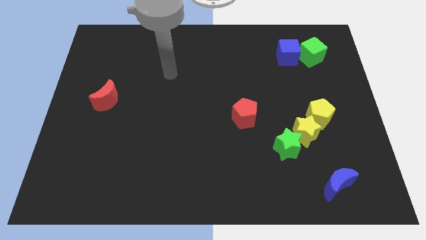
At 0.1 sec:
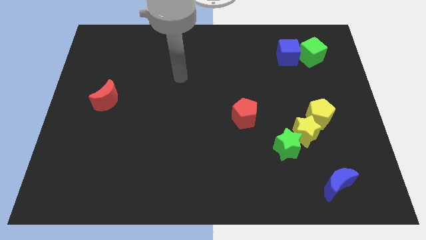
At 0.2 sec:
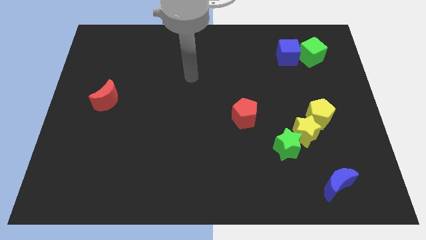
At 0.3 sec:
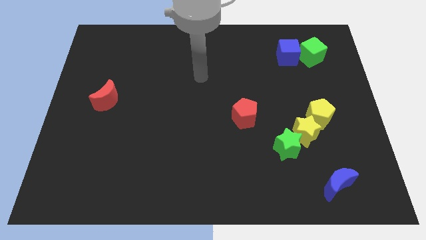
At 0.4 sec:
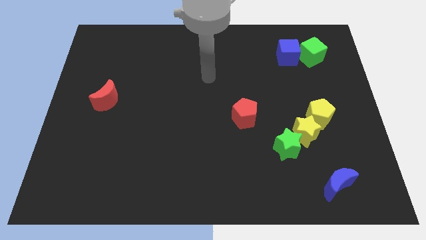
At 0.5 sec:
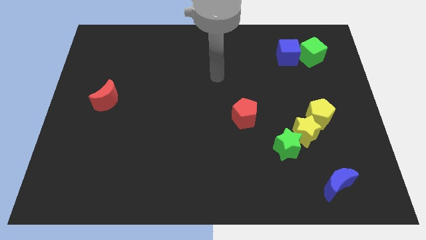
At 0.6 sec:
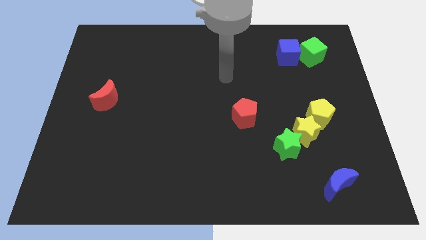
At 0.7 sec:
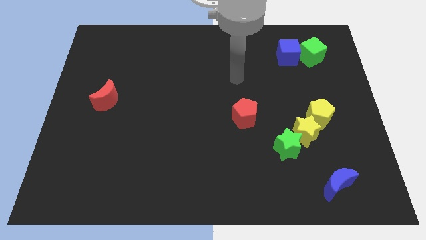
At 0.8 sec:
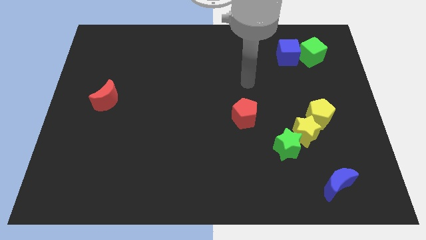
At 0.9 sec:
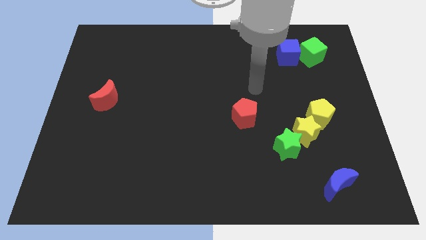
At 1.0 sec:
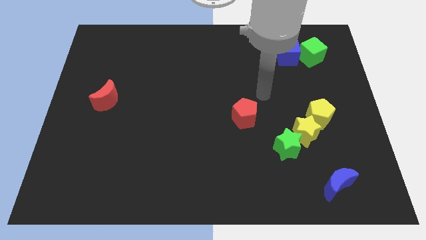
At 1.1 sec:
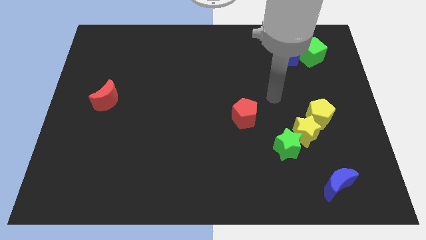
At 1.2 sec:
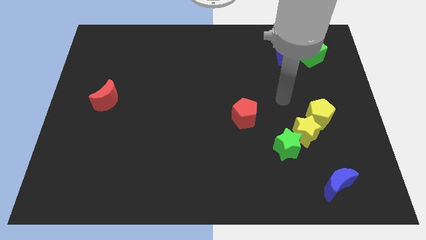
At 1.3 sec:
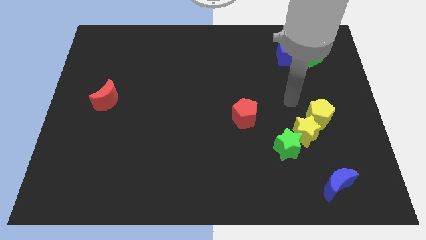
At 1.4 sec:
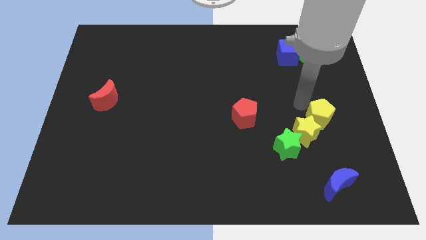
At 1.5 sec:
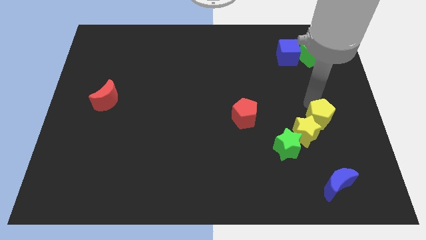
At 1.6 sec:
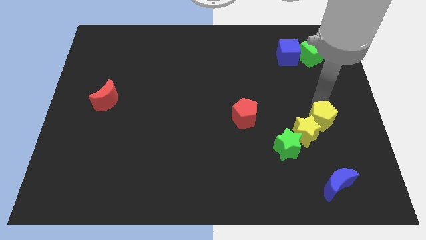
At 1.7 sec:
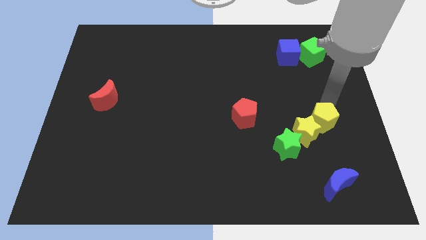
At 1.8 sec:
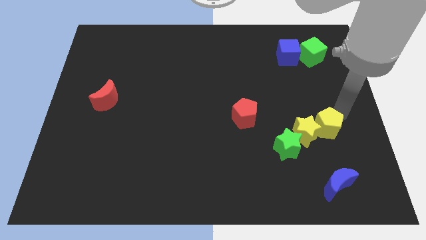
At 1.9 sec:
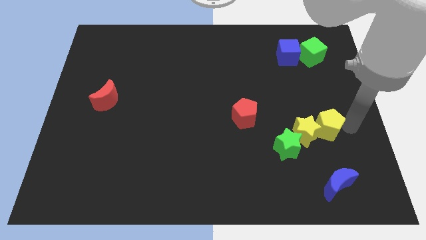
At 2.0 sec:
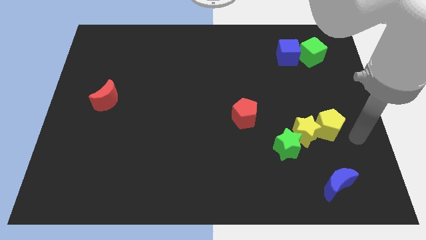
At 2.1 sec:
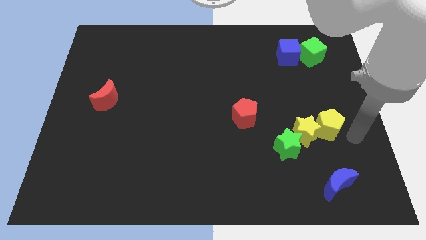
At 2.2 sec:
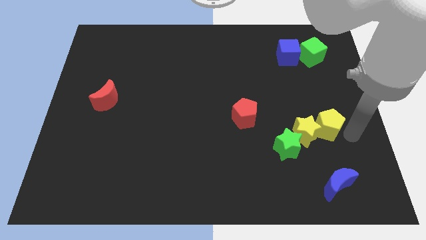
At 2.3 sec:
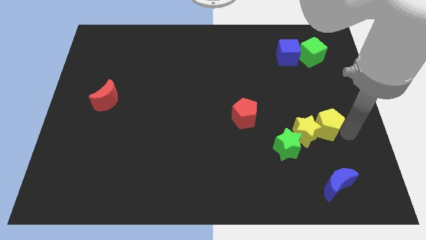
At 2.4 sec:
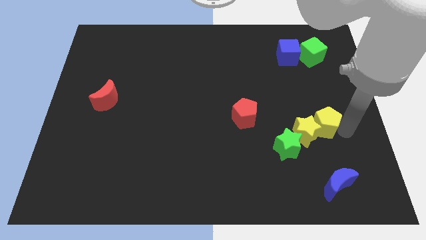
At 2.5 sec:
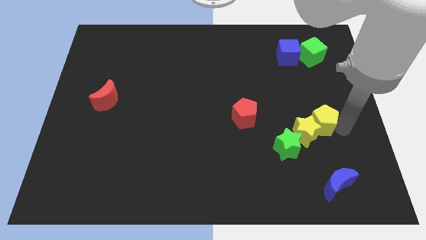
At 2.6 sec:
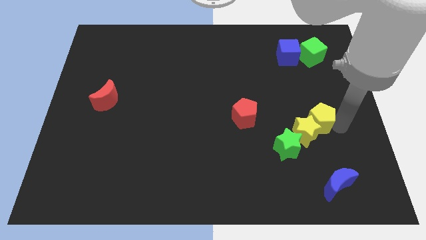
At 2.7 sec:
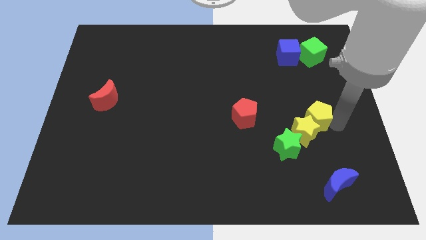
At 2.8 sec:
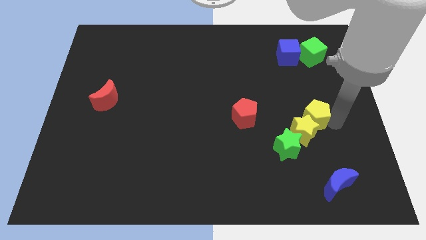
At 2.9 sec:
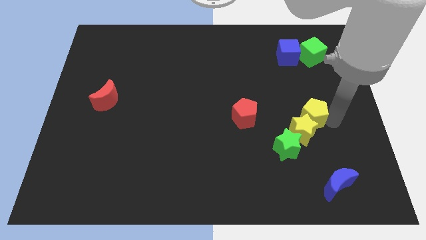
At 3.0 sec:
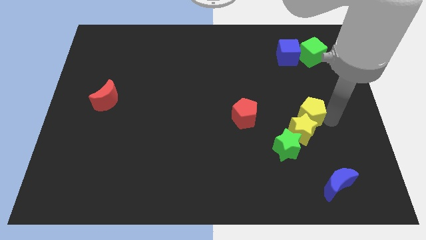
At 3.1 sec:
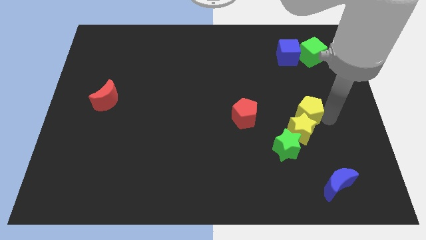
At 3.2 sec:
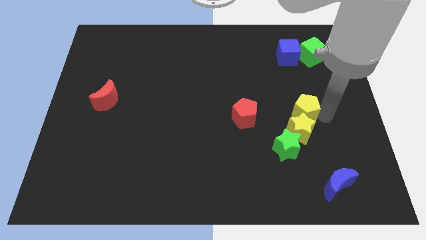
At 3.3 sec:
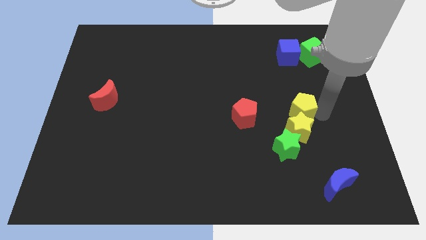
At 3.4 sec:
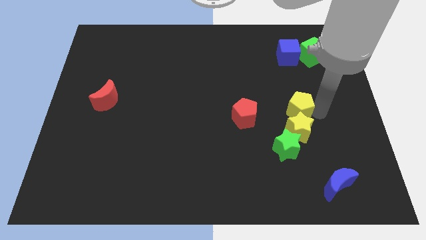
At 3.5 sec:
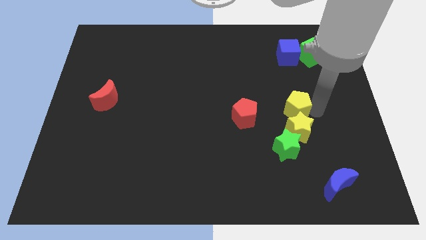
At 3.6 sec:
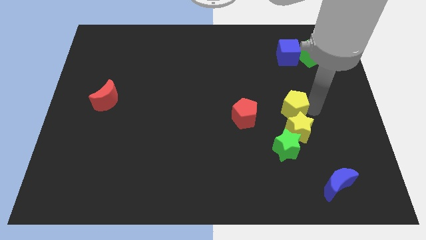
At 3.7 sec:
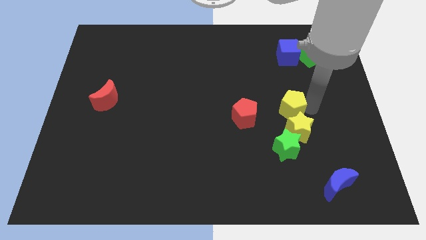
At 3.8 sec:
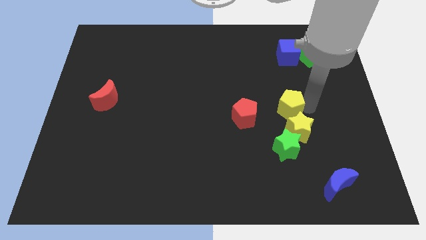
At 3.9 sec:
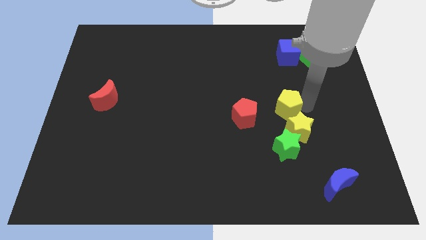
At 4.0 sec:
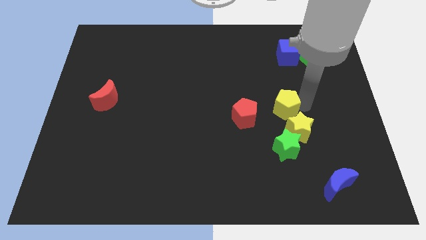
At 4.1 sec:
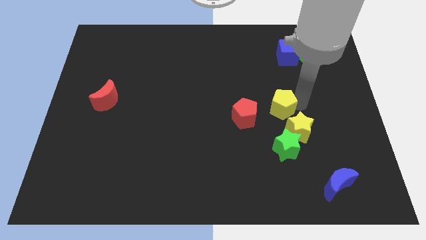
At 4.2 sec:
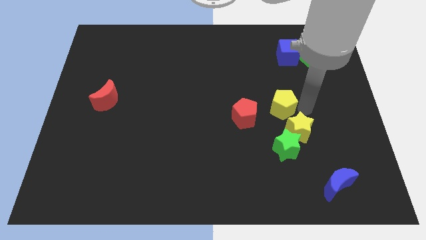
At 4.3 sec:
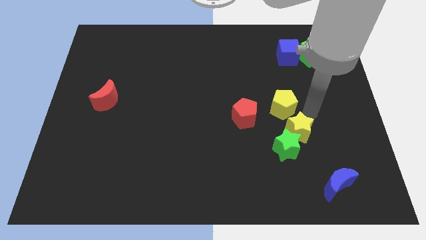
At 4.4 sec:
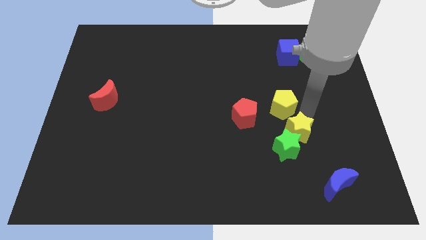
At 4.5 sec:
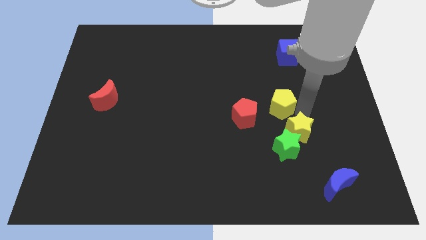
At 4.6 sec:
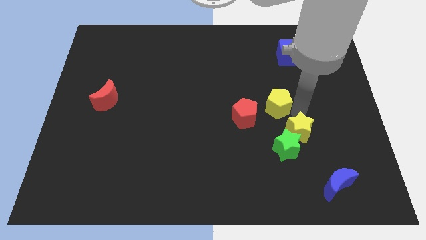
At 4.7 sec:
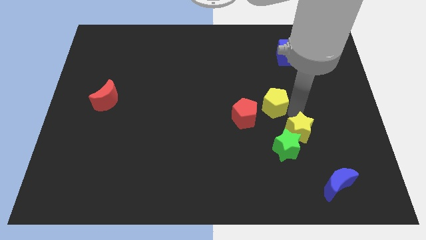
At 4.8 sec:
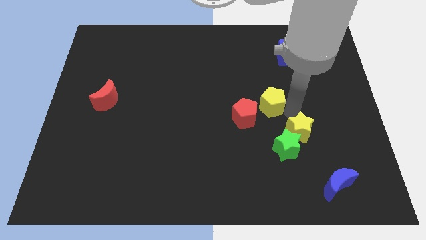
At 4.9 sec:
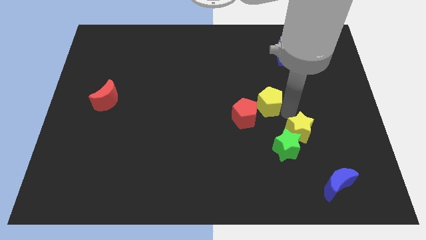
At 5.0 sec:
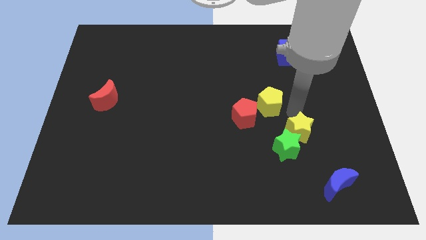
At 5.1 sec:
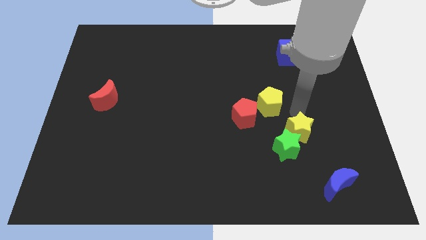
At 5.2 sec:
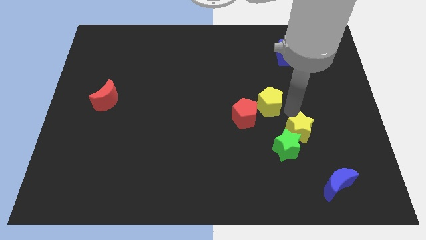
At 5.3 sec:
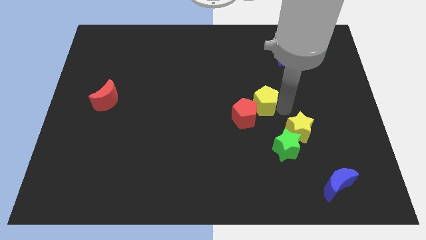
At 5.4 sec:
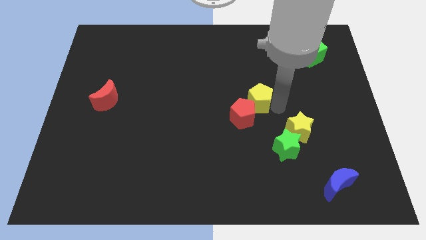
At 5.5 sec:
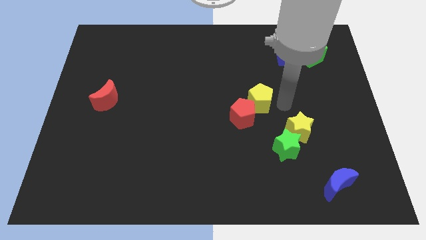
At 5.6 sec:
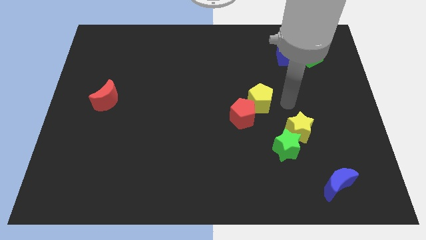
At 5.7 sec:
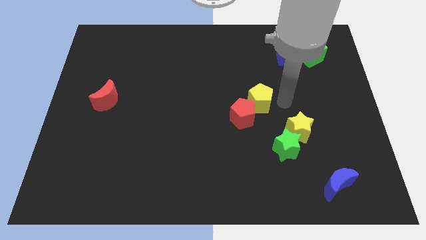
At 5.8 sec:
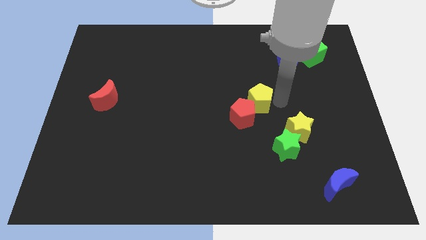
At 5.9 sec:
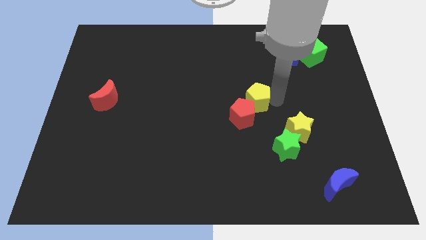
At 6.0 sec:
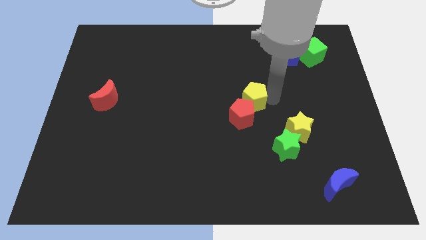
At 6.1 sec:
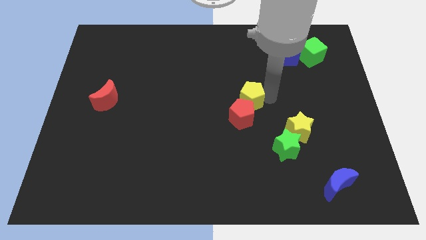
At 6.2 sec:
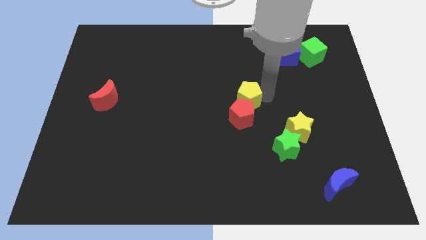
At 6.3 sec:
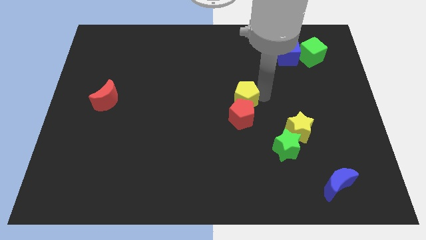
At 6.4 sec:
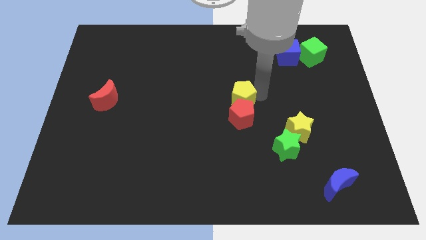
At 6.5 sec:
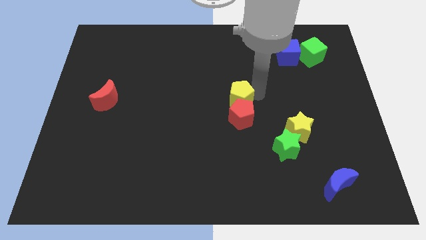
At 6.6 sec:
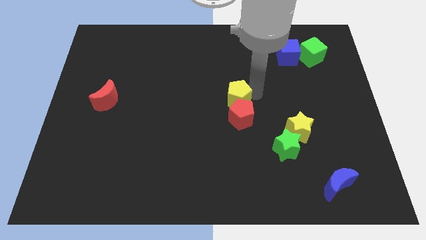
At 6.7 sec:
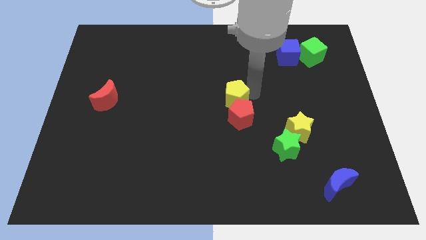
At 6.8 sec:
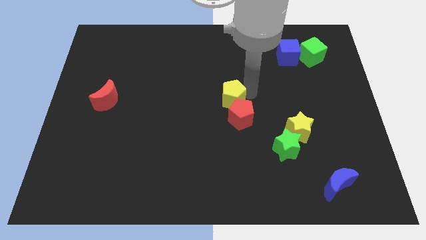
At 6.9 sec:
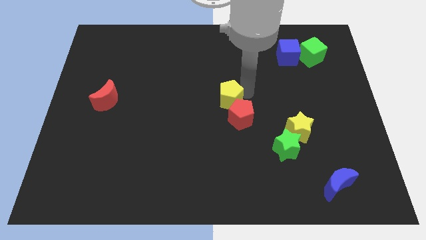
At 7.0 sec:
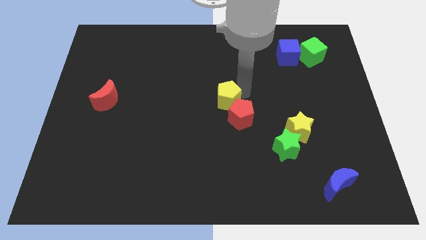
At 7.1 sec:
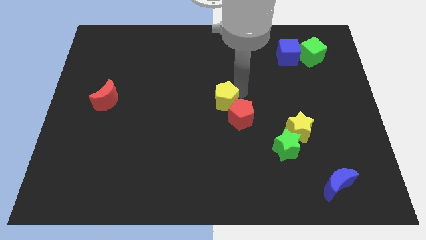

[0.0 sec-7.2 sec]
push the yellow pentagon left

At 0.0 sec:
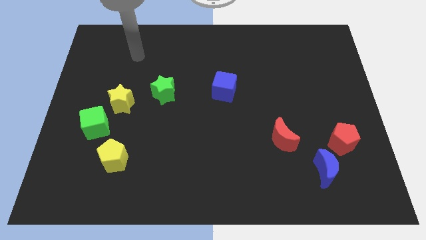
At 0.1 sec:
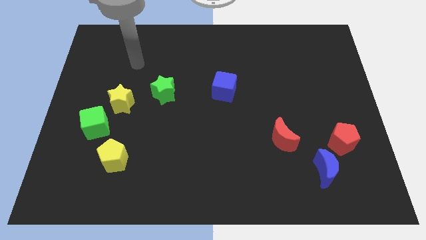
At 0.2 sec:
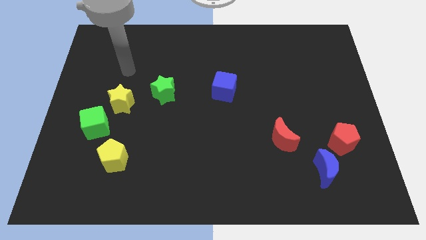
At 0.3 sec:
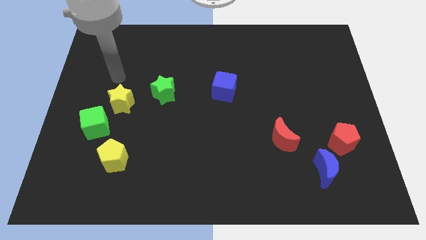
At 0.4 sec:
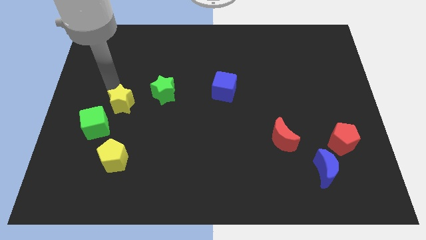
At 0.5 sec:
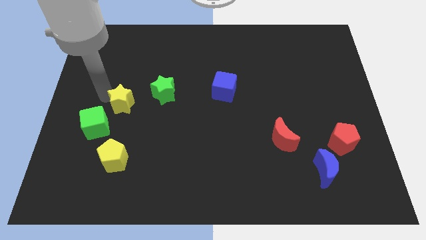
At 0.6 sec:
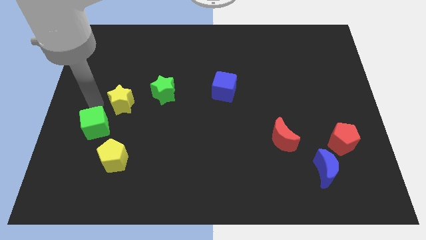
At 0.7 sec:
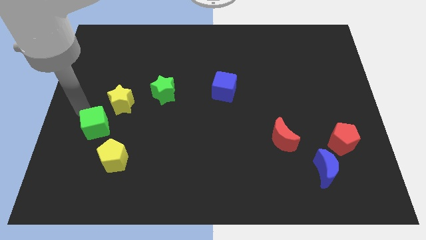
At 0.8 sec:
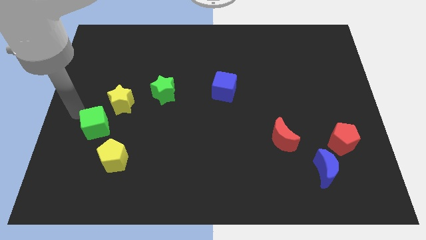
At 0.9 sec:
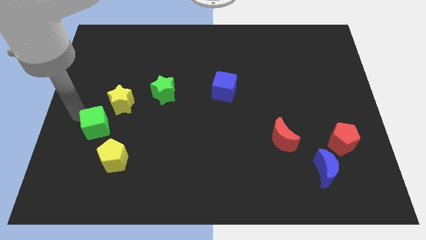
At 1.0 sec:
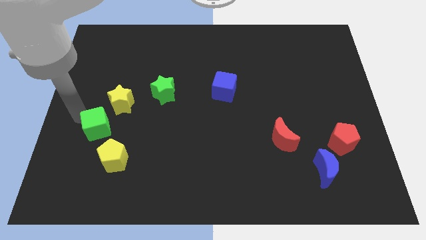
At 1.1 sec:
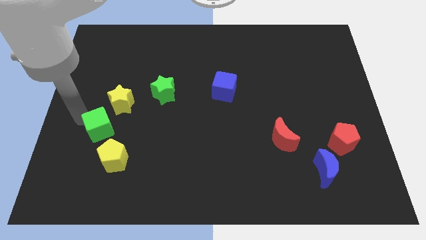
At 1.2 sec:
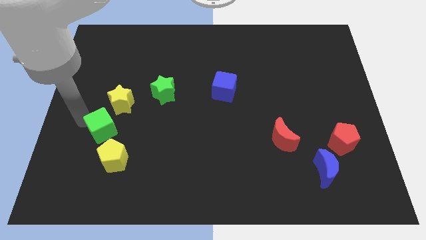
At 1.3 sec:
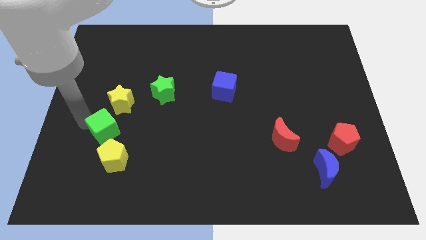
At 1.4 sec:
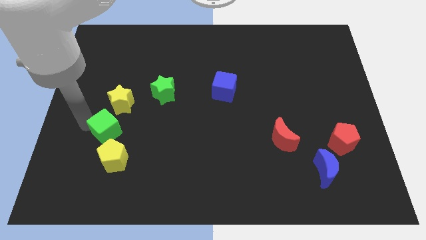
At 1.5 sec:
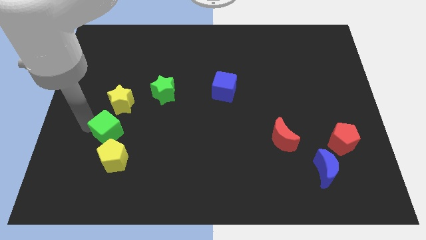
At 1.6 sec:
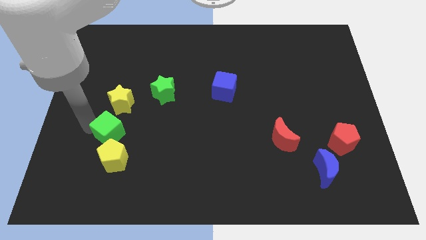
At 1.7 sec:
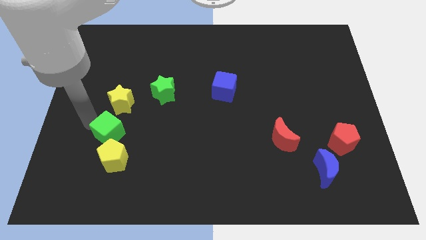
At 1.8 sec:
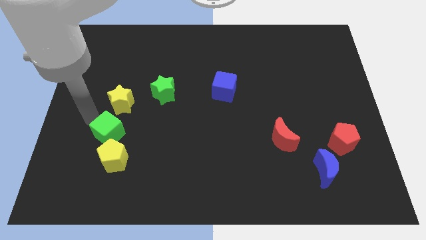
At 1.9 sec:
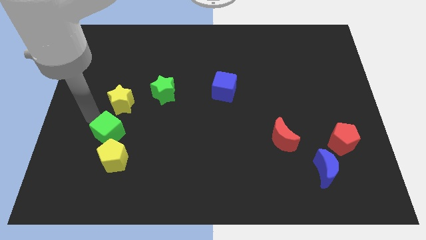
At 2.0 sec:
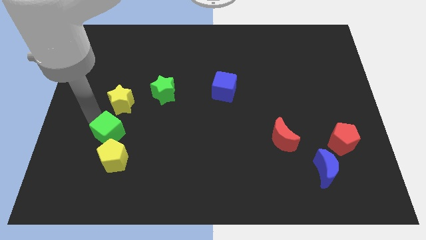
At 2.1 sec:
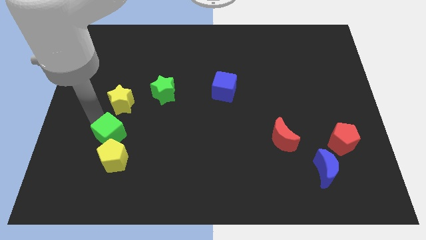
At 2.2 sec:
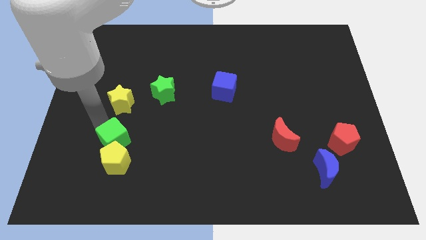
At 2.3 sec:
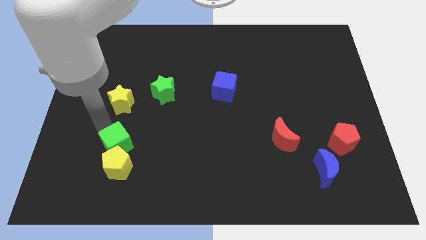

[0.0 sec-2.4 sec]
slide the green cube a little bit downwards and then to the right
